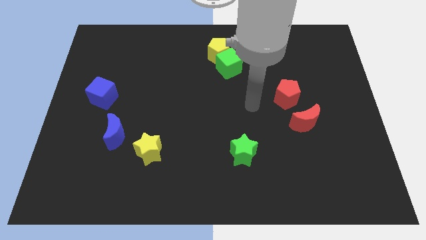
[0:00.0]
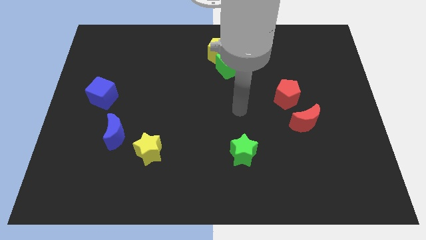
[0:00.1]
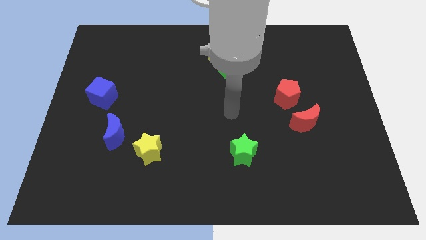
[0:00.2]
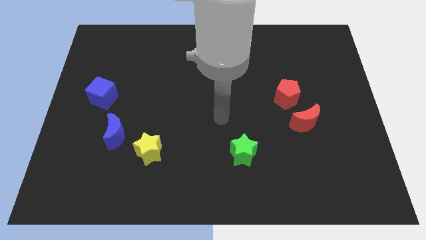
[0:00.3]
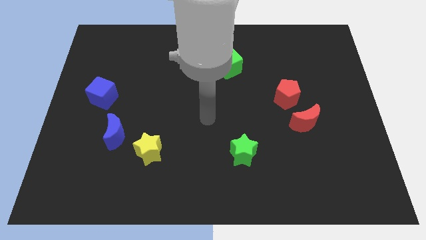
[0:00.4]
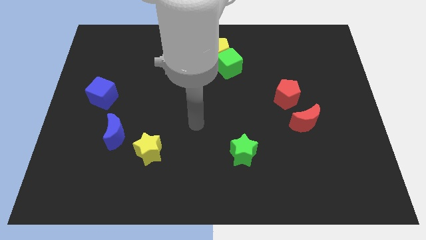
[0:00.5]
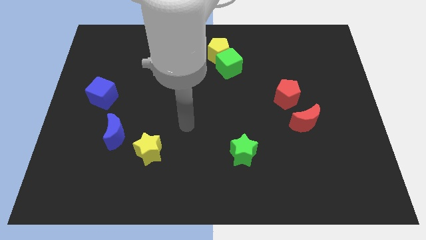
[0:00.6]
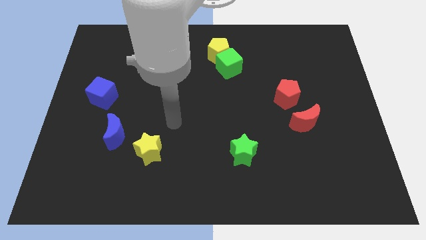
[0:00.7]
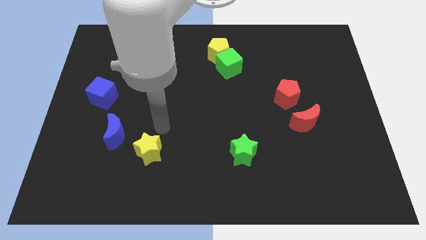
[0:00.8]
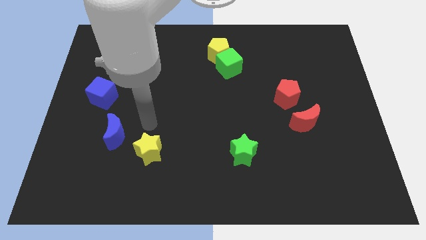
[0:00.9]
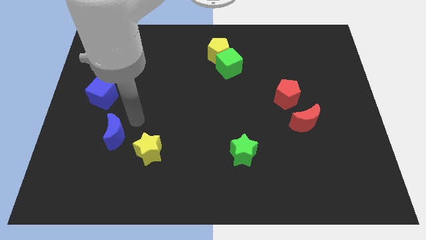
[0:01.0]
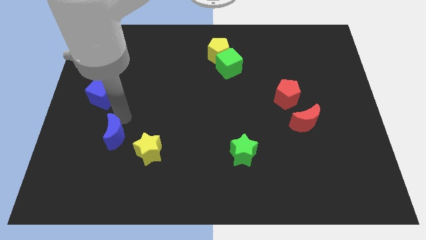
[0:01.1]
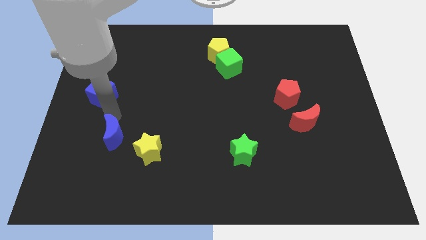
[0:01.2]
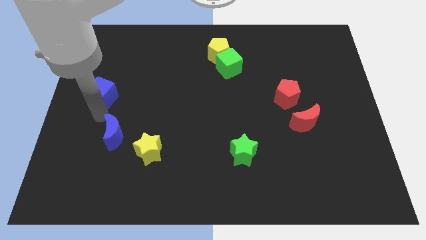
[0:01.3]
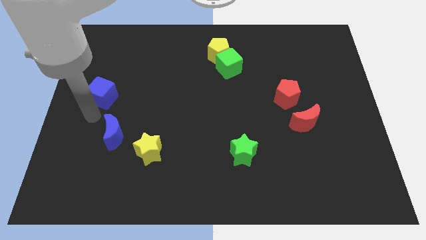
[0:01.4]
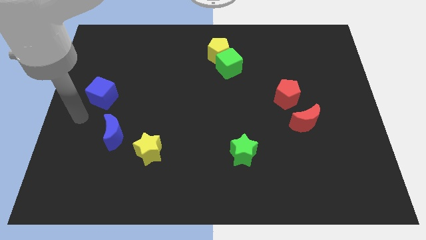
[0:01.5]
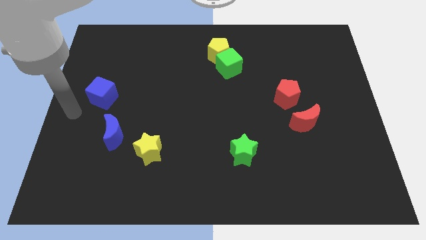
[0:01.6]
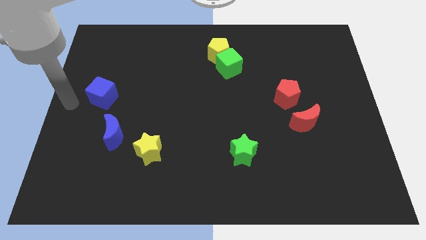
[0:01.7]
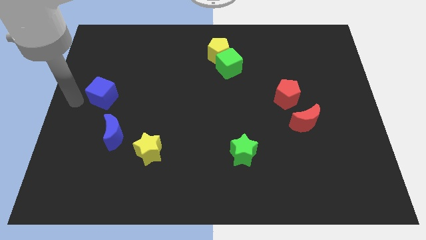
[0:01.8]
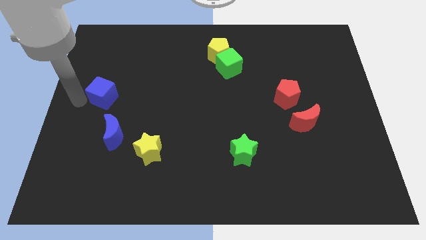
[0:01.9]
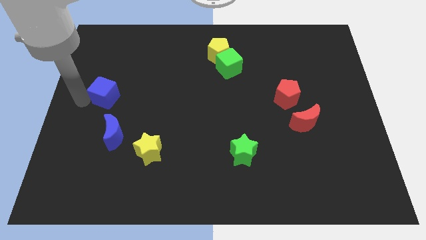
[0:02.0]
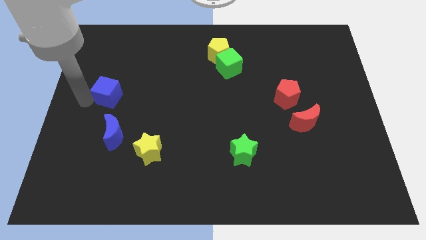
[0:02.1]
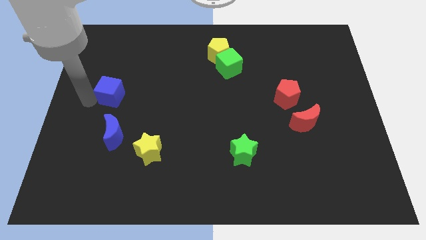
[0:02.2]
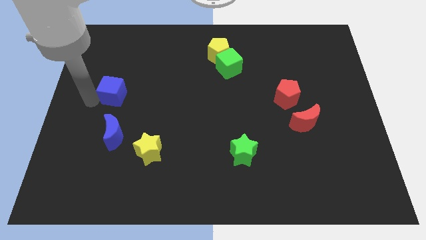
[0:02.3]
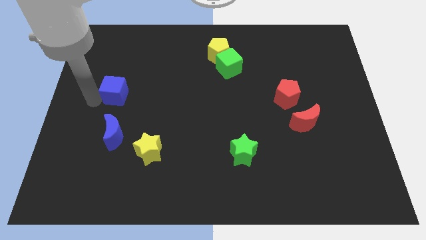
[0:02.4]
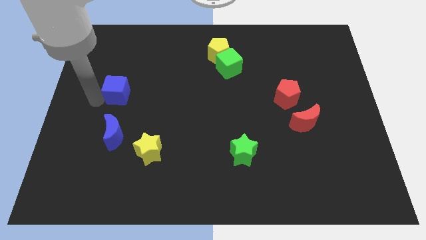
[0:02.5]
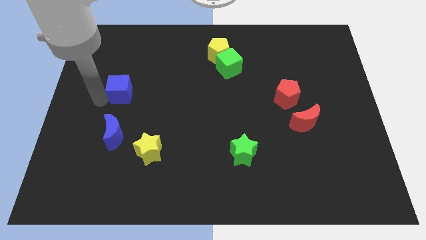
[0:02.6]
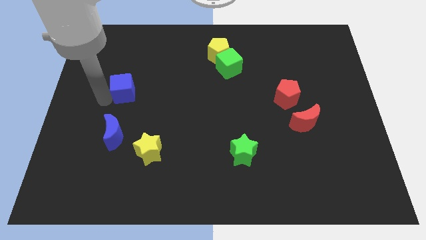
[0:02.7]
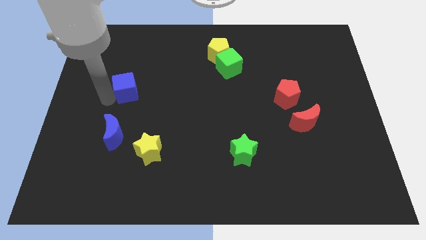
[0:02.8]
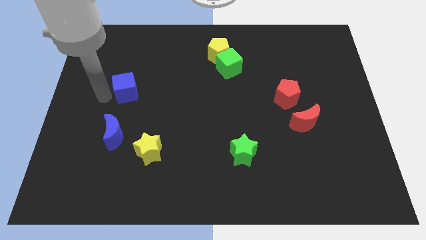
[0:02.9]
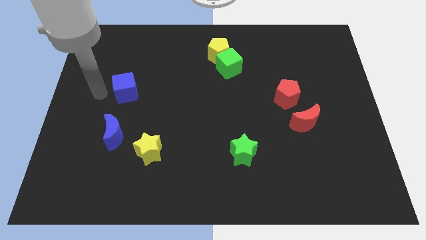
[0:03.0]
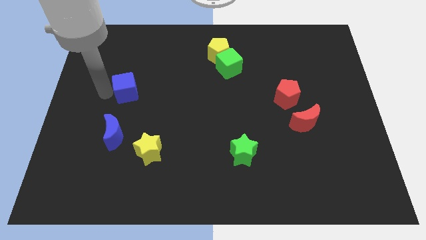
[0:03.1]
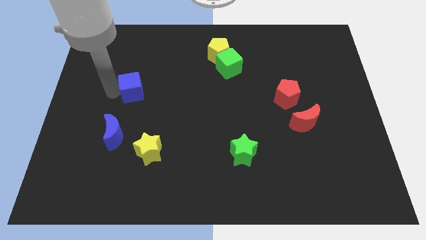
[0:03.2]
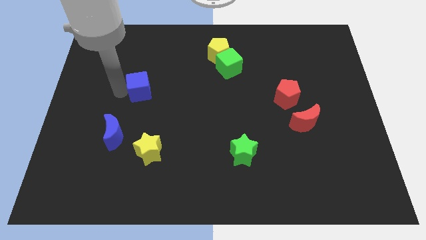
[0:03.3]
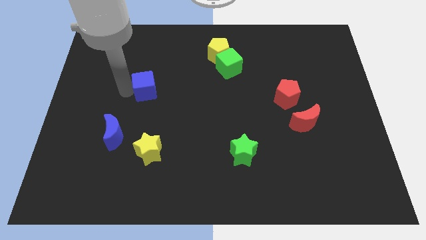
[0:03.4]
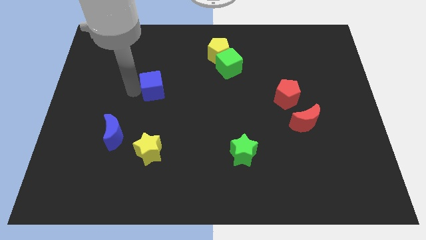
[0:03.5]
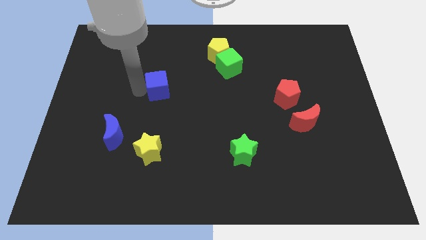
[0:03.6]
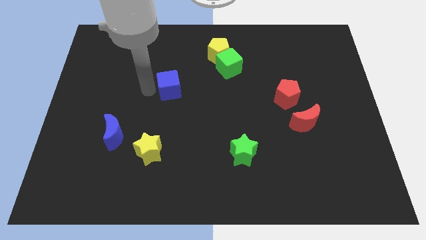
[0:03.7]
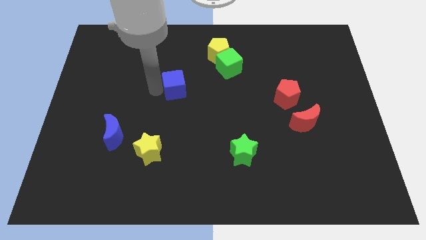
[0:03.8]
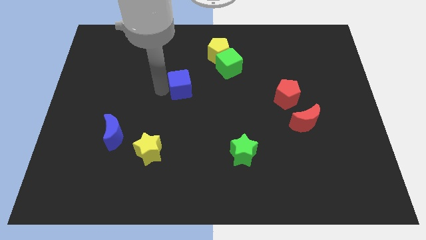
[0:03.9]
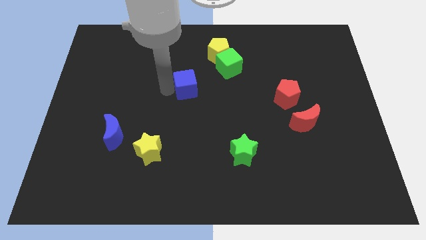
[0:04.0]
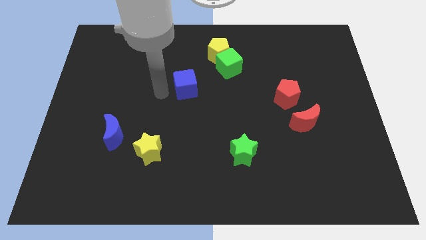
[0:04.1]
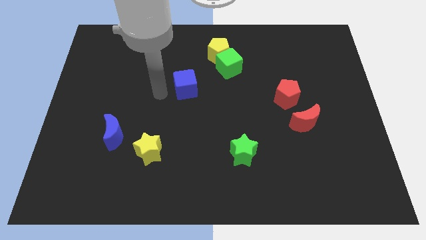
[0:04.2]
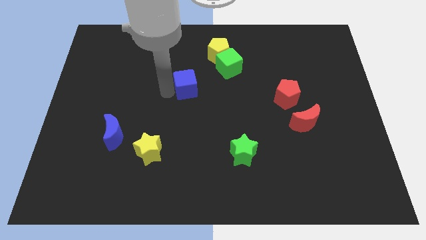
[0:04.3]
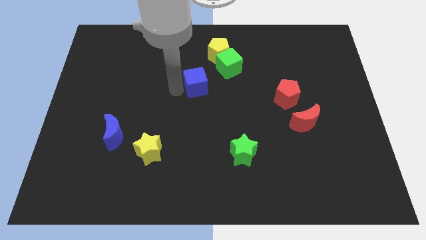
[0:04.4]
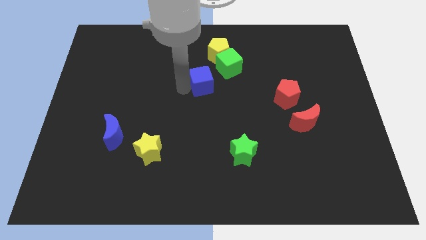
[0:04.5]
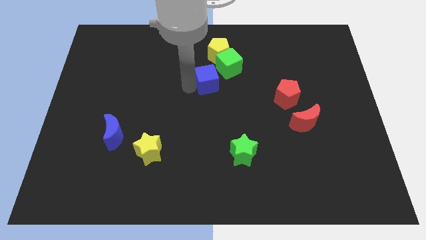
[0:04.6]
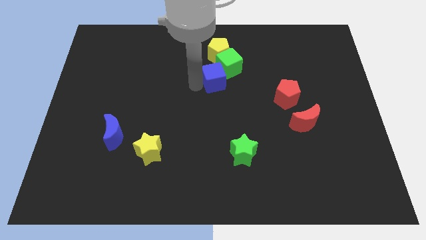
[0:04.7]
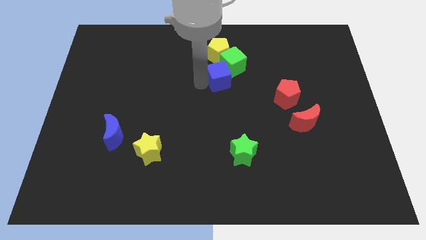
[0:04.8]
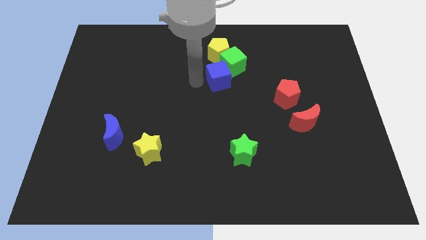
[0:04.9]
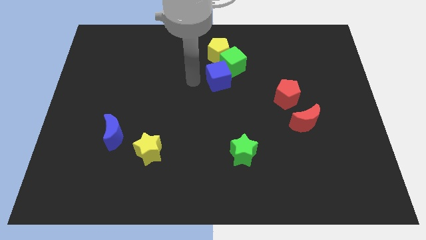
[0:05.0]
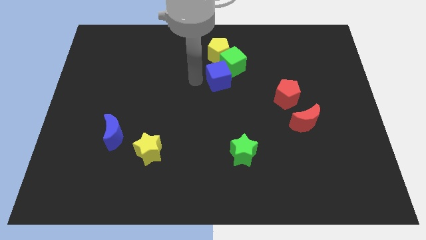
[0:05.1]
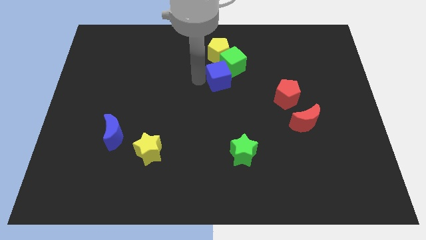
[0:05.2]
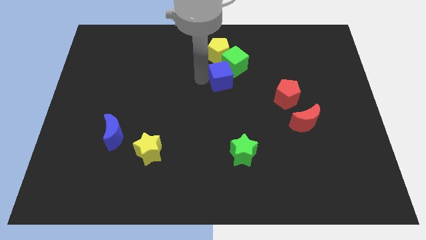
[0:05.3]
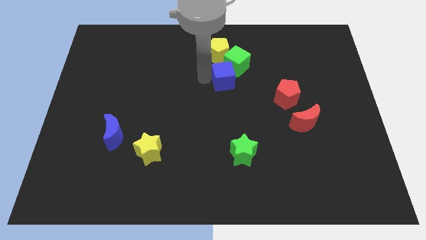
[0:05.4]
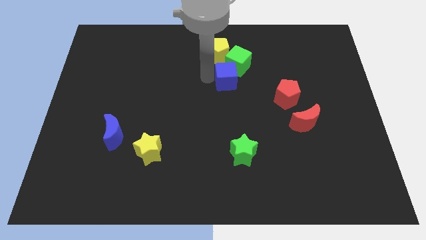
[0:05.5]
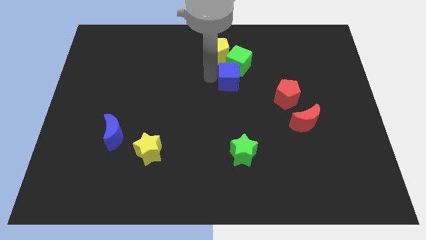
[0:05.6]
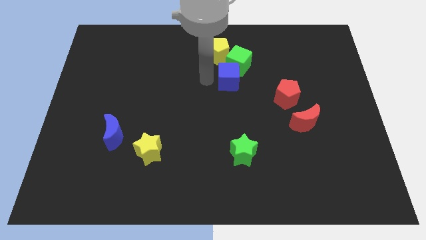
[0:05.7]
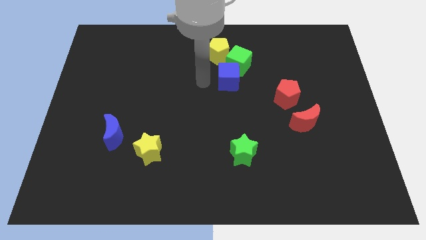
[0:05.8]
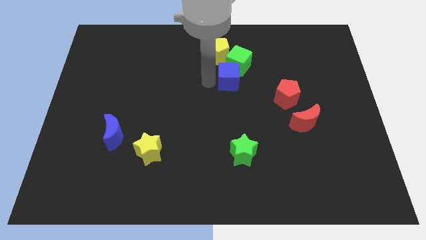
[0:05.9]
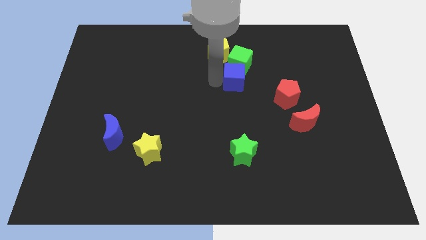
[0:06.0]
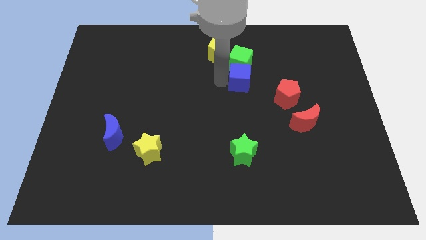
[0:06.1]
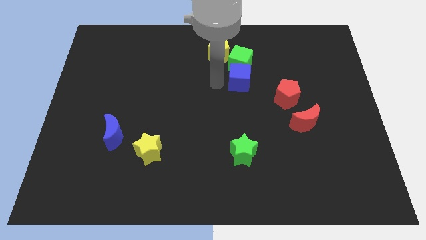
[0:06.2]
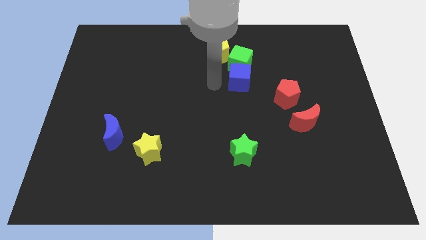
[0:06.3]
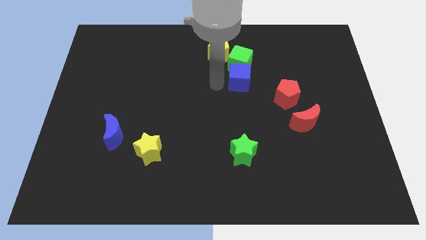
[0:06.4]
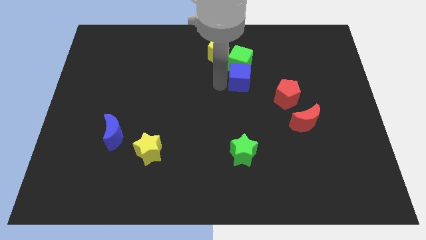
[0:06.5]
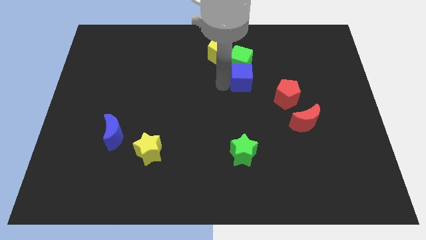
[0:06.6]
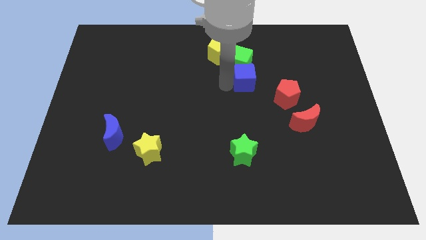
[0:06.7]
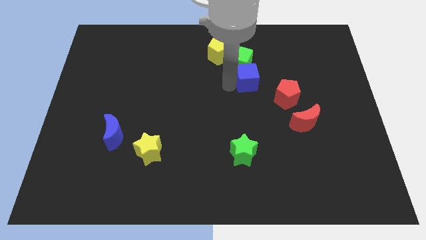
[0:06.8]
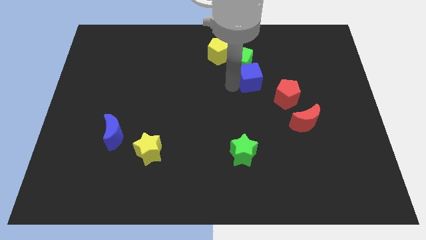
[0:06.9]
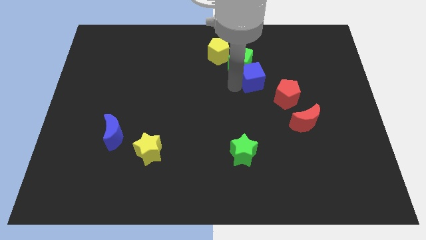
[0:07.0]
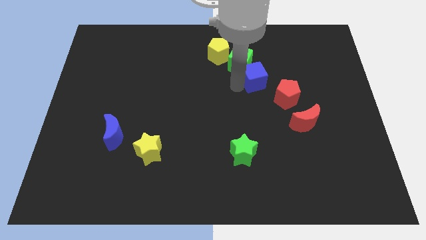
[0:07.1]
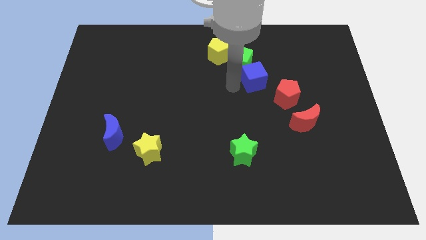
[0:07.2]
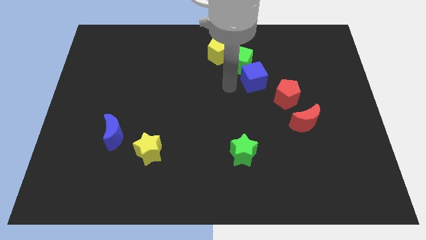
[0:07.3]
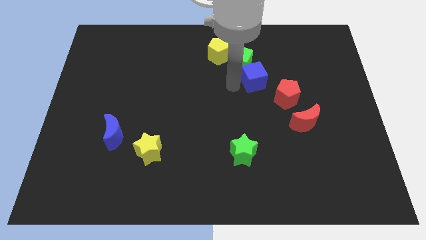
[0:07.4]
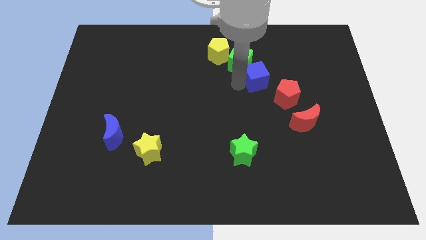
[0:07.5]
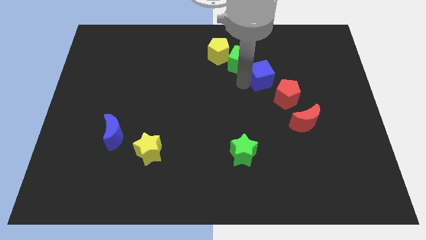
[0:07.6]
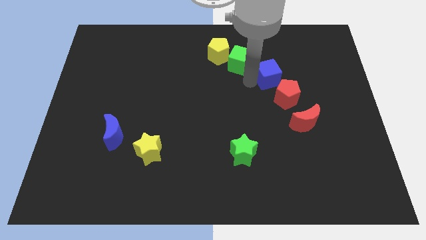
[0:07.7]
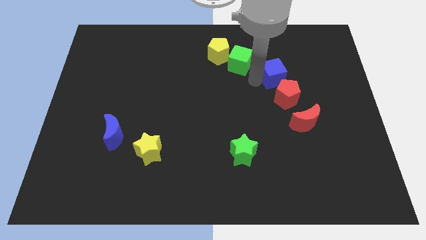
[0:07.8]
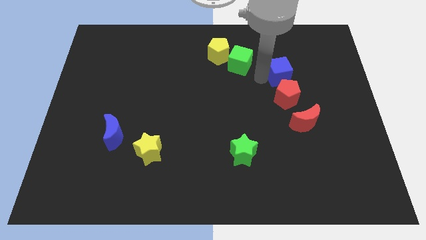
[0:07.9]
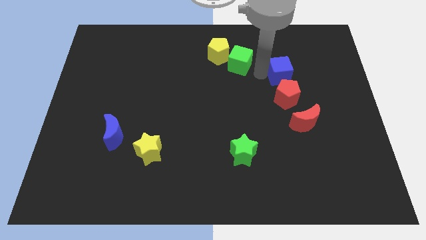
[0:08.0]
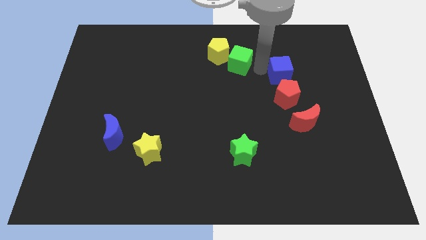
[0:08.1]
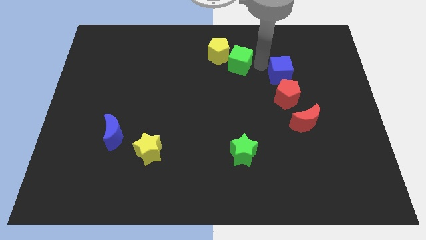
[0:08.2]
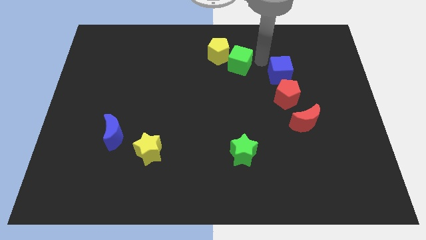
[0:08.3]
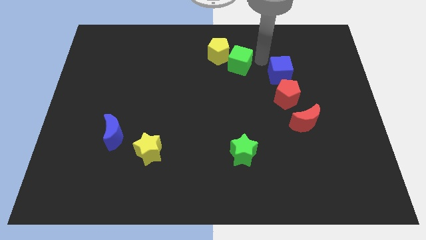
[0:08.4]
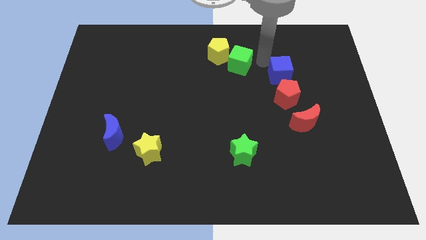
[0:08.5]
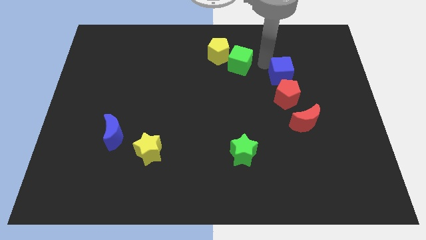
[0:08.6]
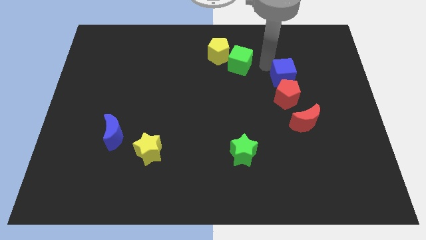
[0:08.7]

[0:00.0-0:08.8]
put the blue cube to the top of the red moon
